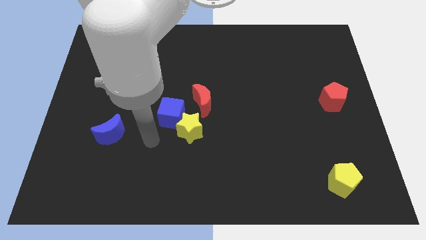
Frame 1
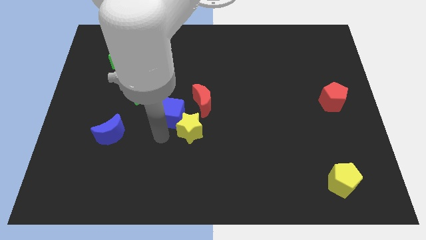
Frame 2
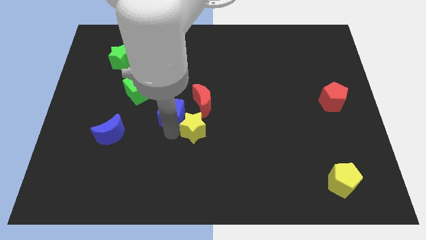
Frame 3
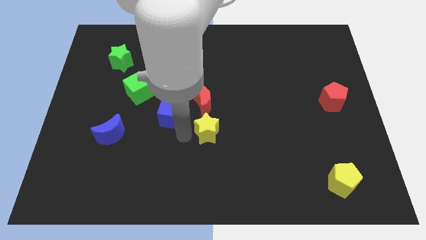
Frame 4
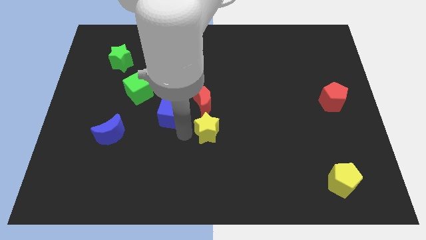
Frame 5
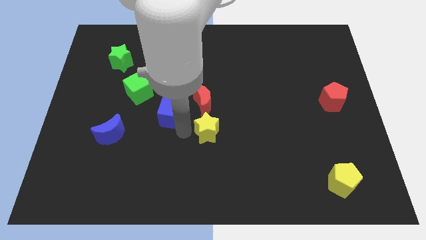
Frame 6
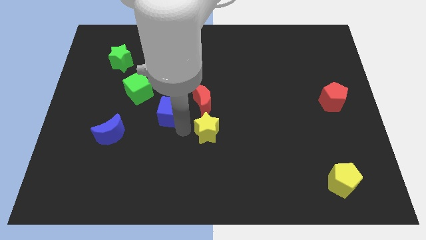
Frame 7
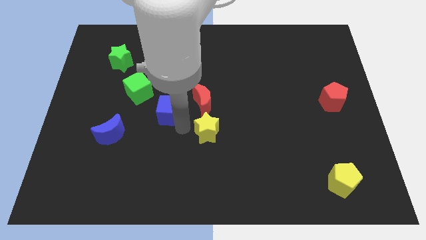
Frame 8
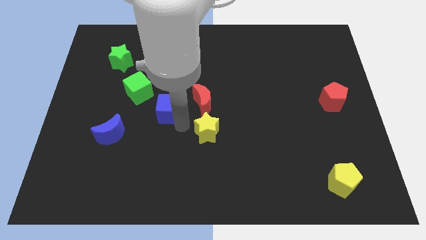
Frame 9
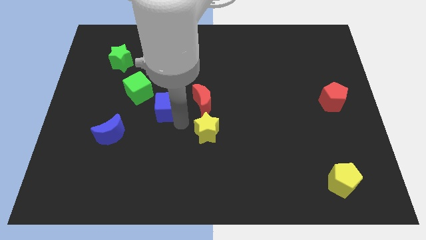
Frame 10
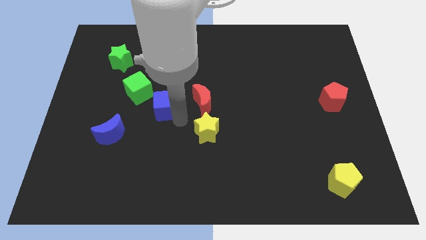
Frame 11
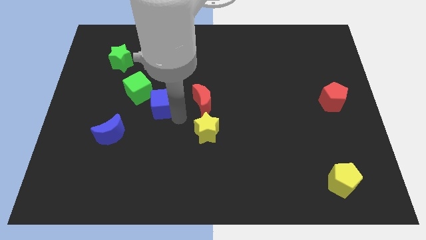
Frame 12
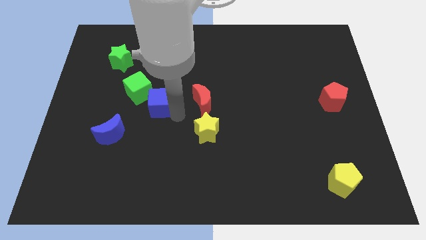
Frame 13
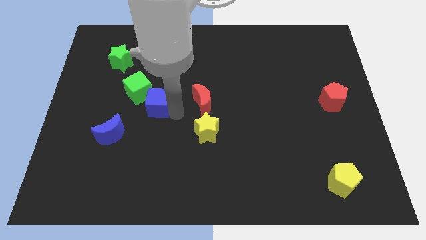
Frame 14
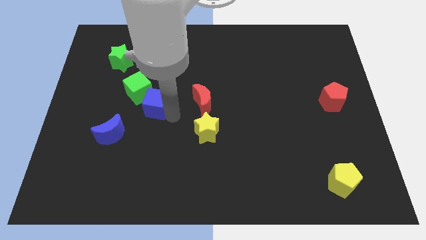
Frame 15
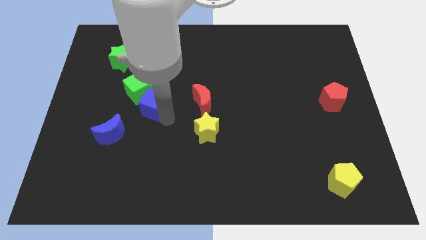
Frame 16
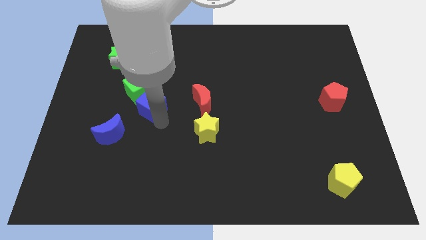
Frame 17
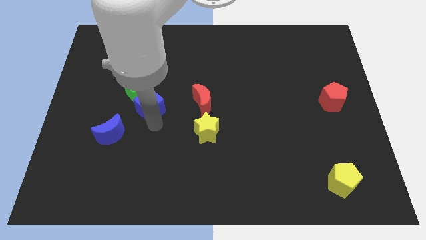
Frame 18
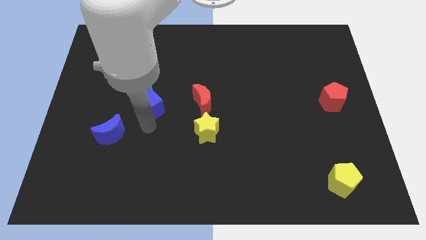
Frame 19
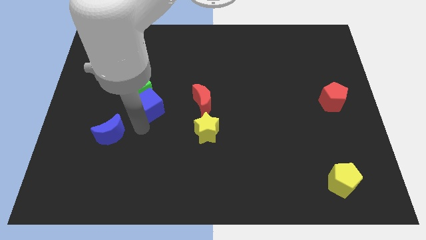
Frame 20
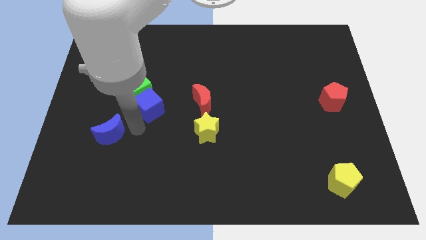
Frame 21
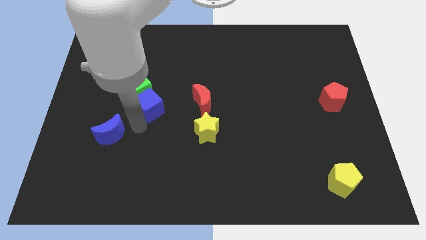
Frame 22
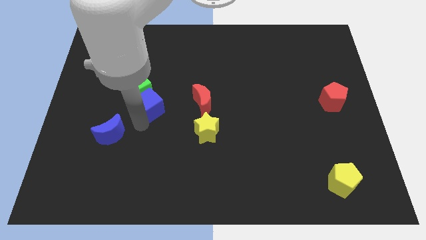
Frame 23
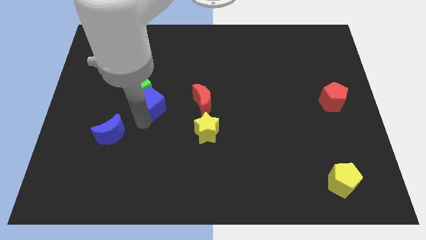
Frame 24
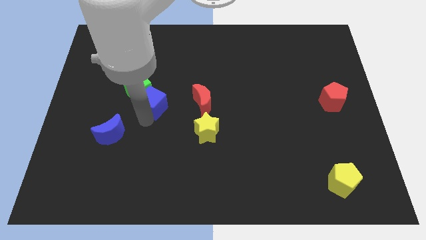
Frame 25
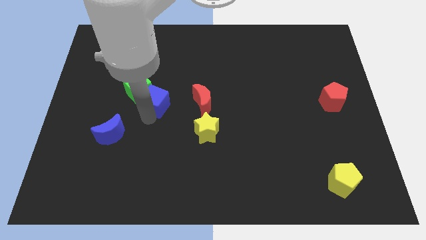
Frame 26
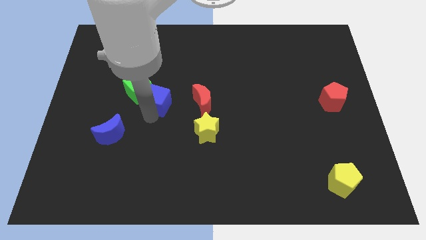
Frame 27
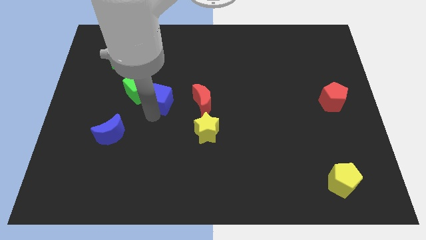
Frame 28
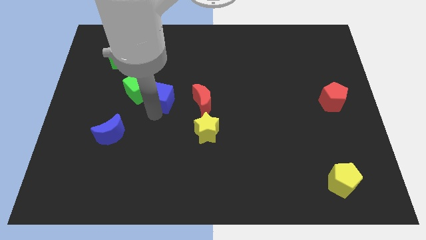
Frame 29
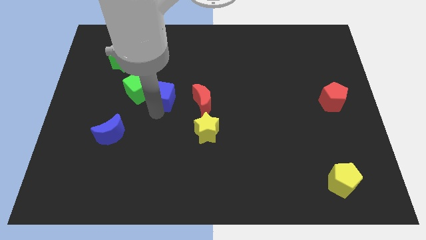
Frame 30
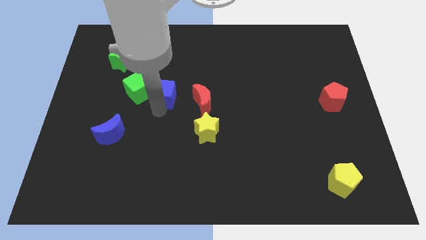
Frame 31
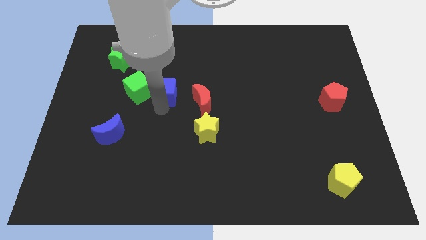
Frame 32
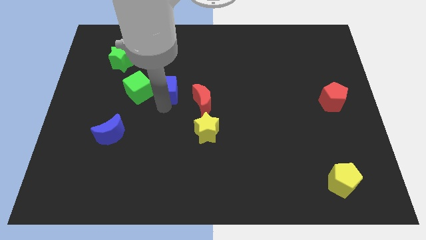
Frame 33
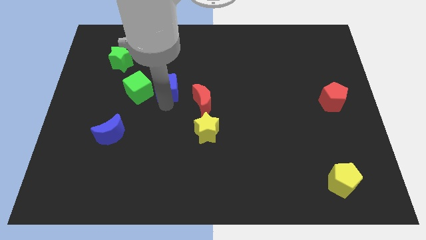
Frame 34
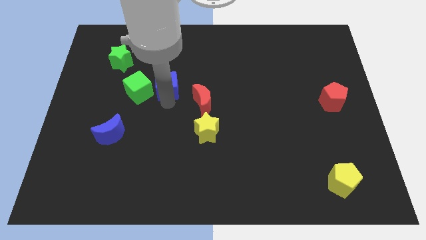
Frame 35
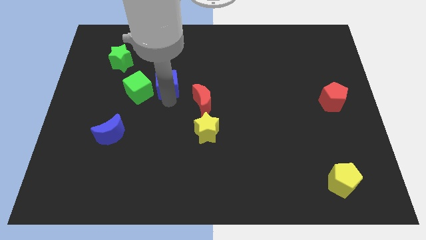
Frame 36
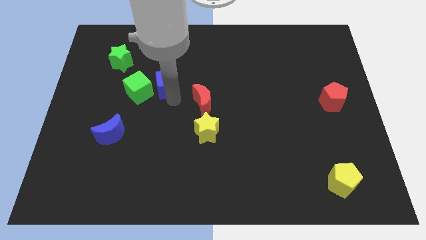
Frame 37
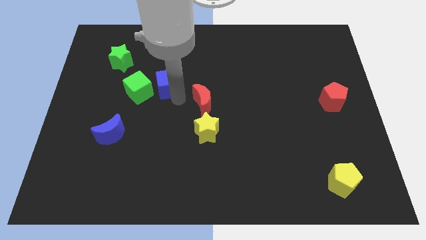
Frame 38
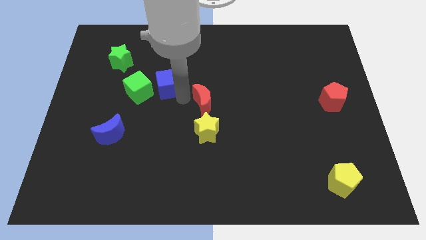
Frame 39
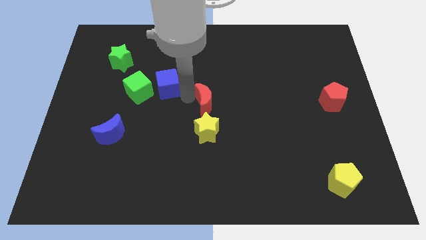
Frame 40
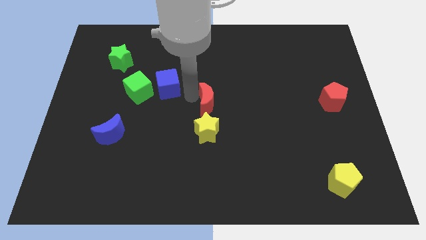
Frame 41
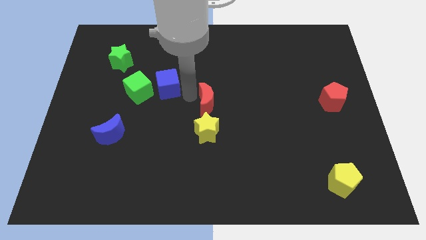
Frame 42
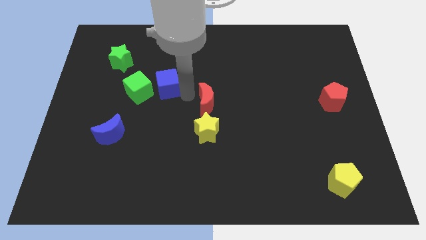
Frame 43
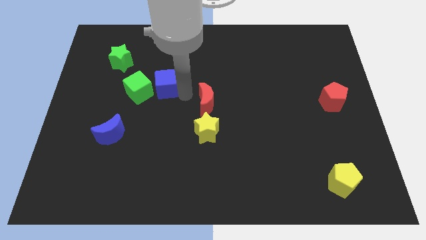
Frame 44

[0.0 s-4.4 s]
push the blue cube up and to the left somewhat

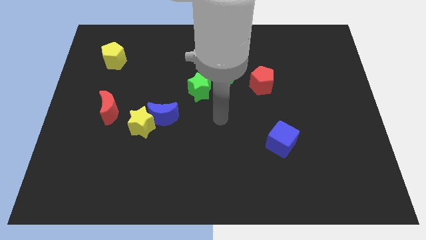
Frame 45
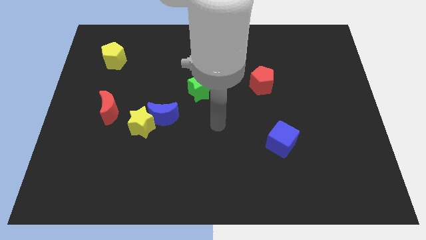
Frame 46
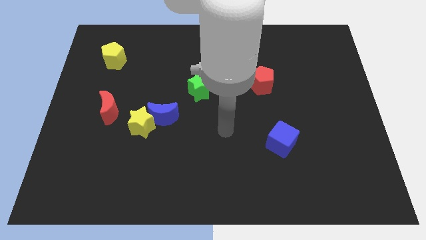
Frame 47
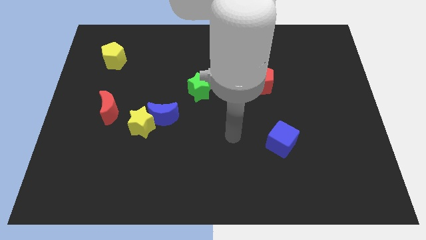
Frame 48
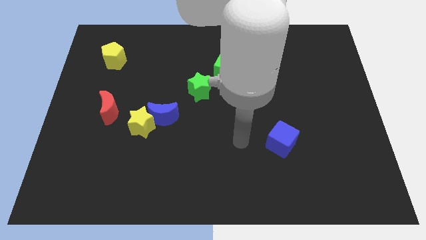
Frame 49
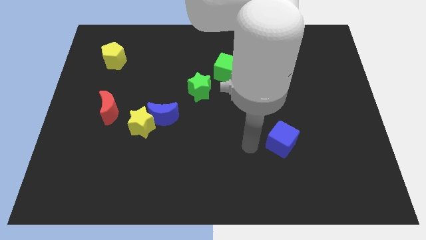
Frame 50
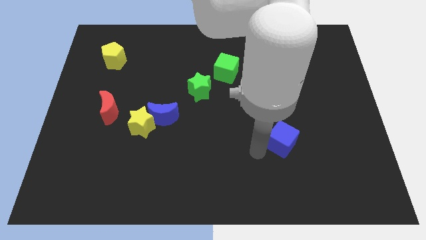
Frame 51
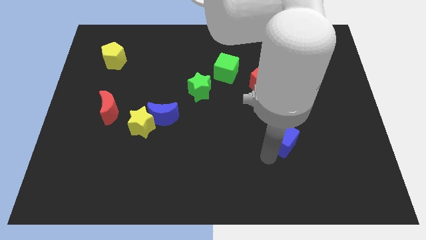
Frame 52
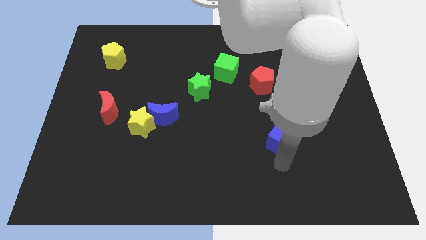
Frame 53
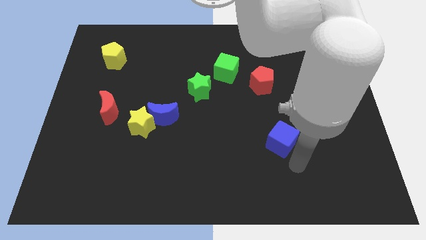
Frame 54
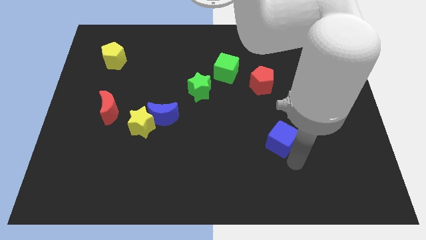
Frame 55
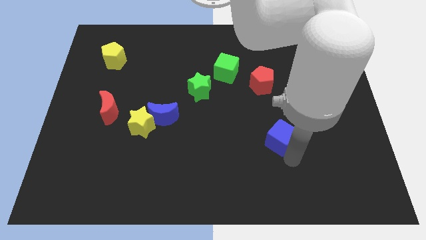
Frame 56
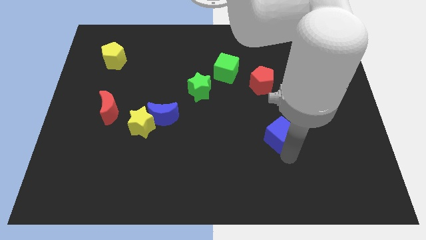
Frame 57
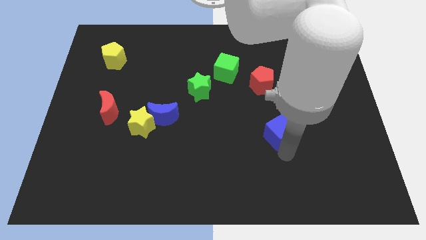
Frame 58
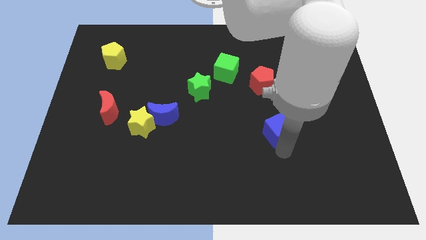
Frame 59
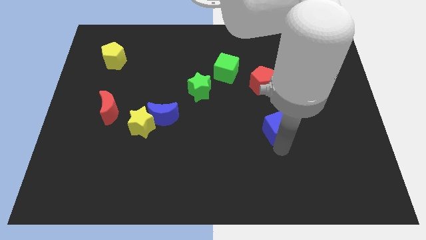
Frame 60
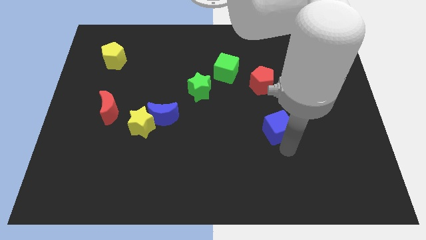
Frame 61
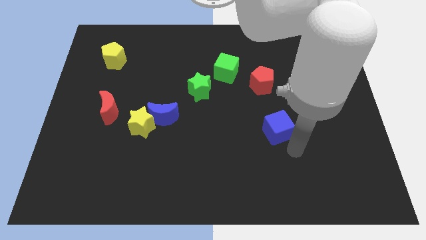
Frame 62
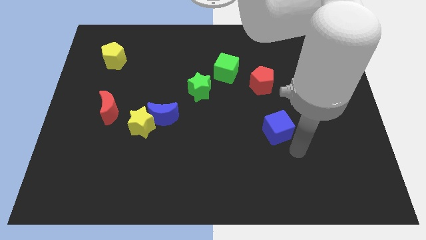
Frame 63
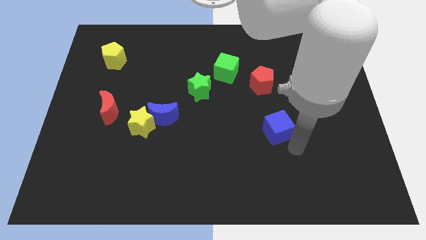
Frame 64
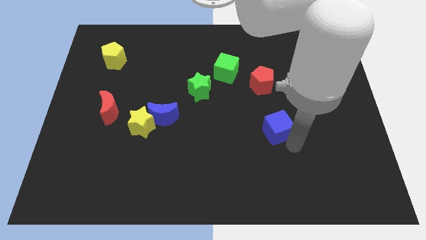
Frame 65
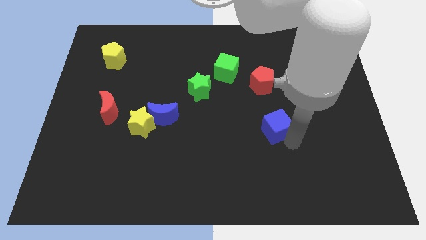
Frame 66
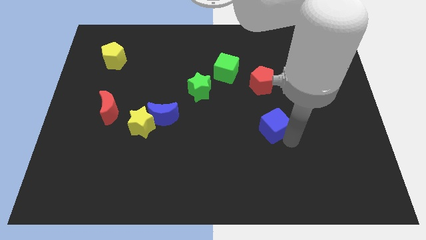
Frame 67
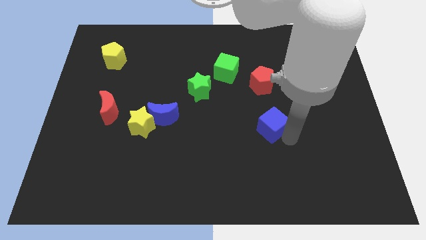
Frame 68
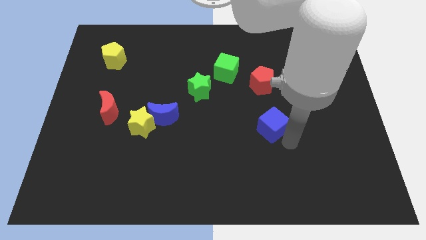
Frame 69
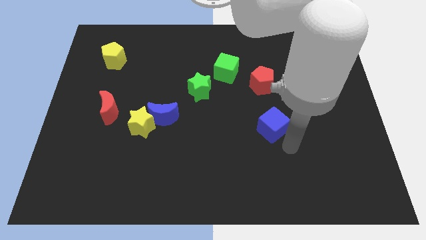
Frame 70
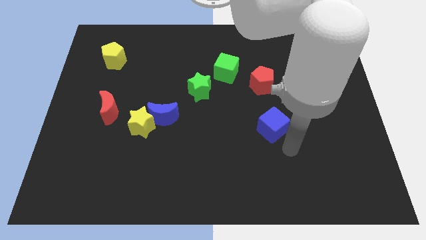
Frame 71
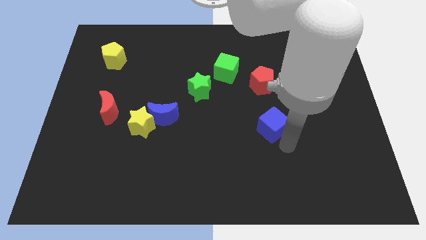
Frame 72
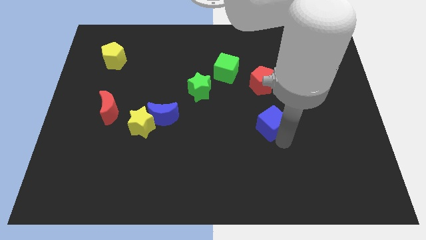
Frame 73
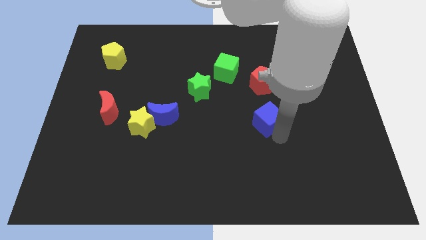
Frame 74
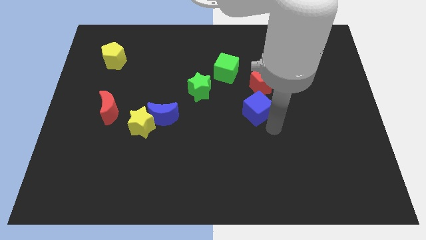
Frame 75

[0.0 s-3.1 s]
slide the blue cube upwards and then to the left somewhat

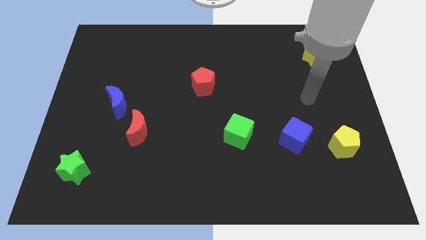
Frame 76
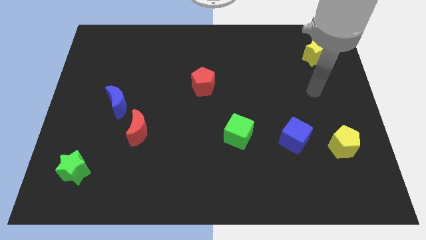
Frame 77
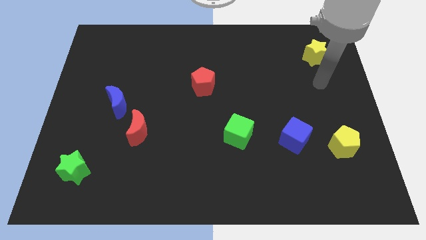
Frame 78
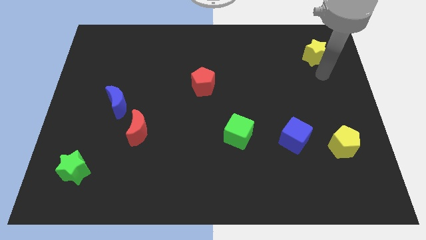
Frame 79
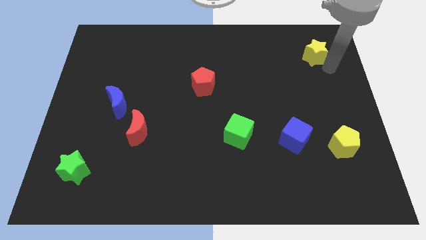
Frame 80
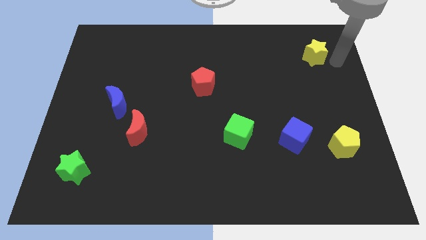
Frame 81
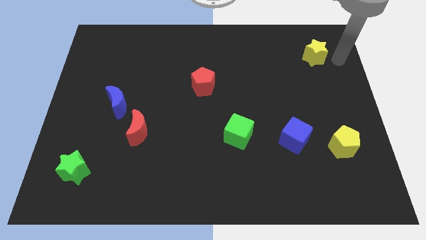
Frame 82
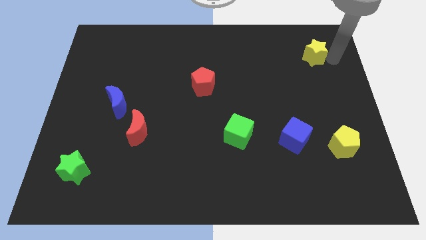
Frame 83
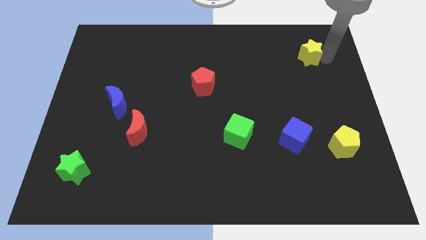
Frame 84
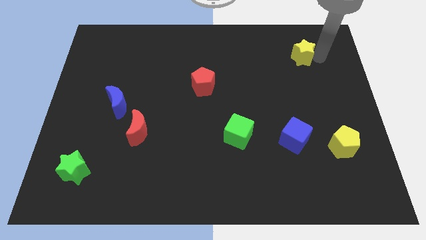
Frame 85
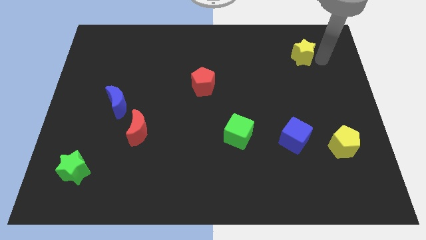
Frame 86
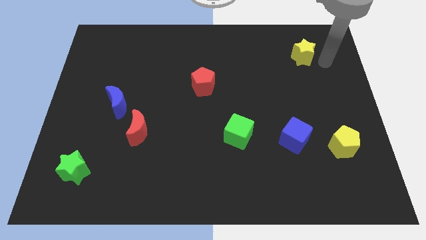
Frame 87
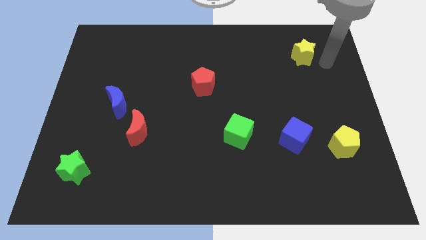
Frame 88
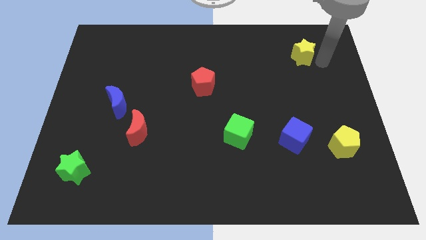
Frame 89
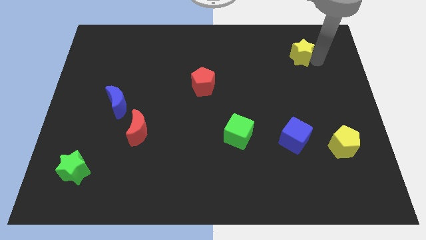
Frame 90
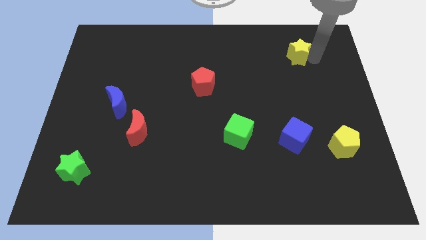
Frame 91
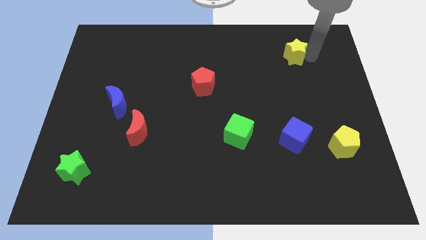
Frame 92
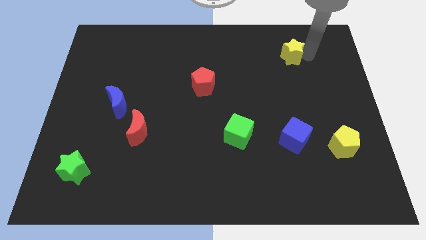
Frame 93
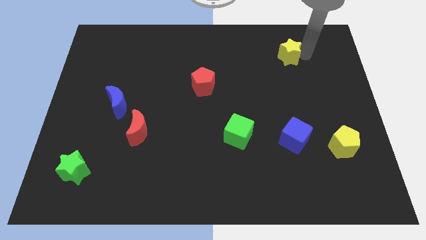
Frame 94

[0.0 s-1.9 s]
push the yellow star left a little
